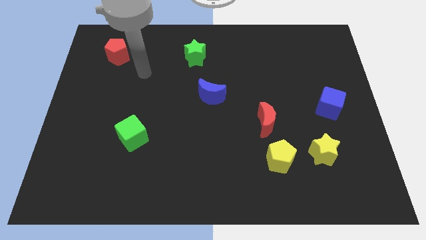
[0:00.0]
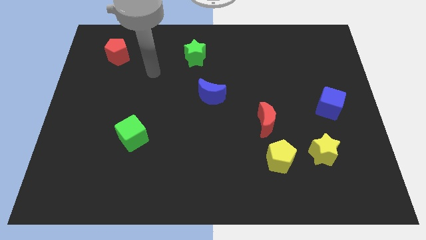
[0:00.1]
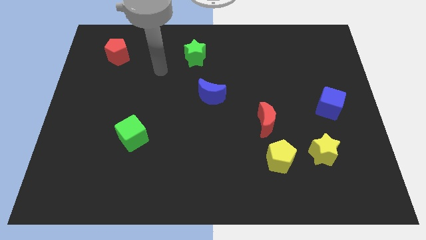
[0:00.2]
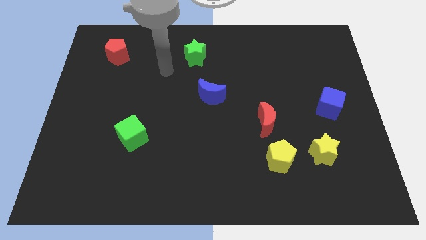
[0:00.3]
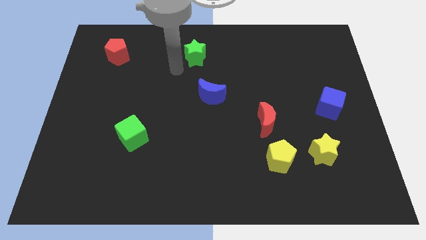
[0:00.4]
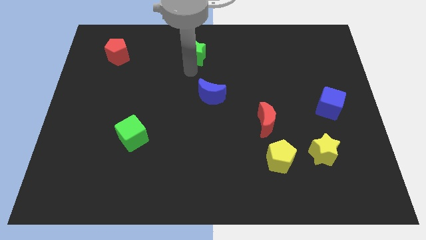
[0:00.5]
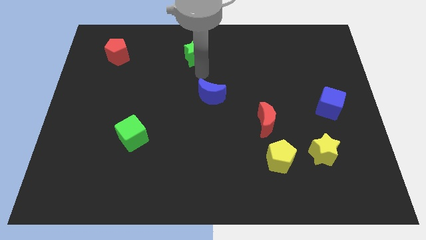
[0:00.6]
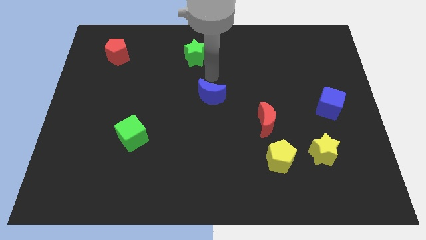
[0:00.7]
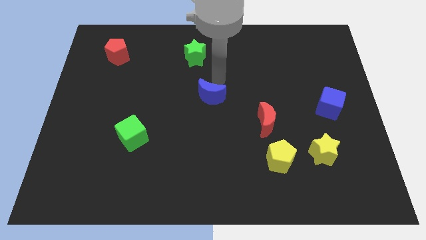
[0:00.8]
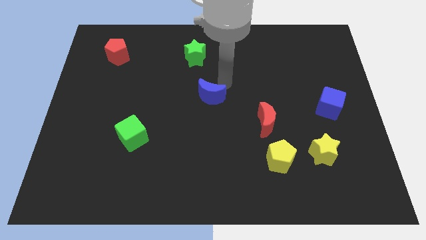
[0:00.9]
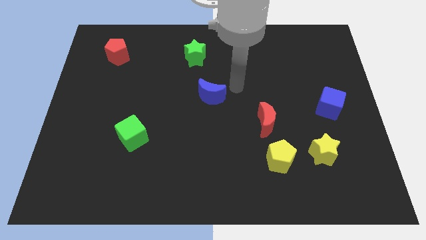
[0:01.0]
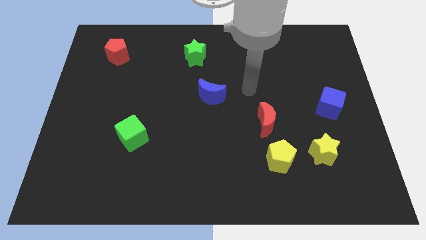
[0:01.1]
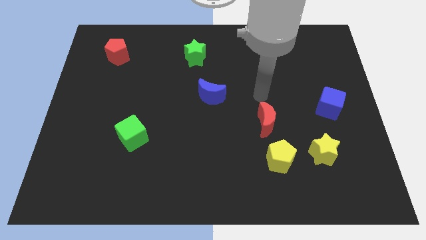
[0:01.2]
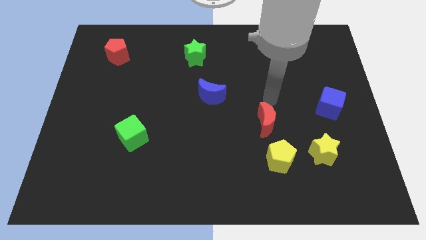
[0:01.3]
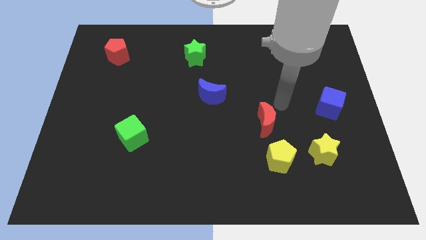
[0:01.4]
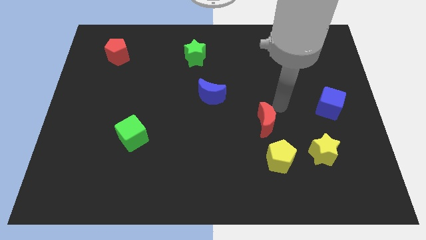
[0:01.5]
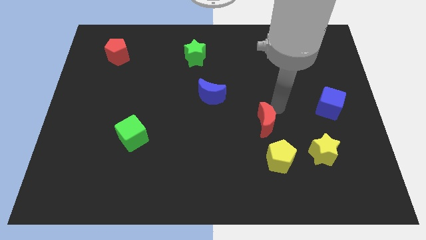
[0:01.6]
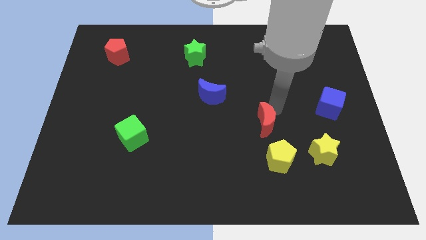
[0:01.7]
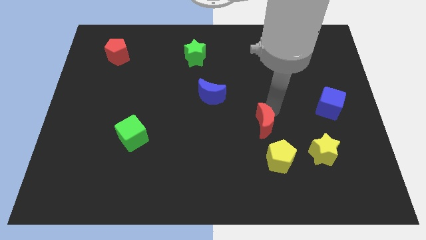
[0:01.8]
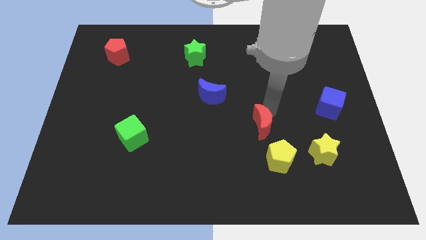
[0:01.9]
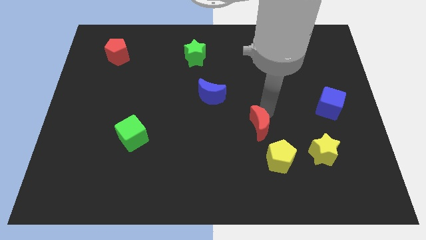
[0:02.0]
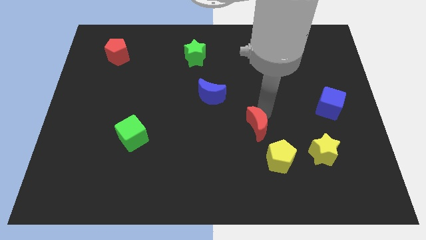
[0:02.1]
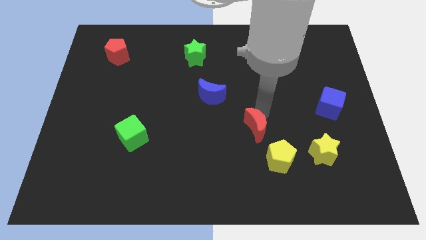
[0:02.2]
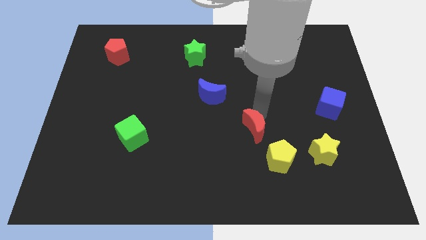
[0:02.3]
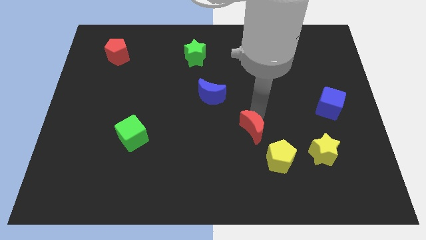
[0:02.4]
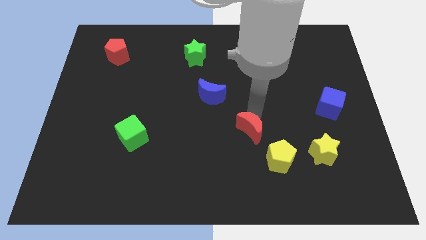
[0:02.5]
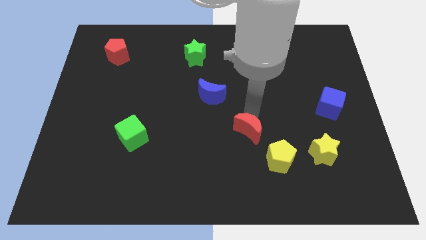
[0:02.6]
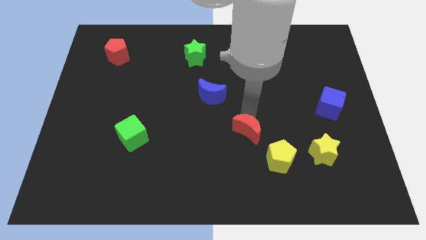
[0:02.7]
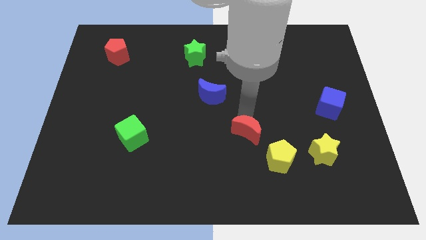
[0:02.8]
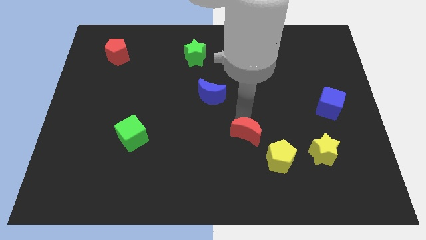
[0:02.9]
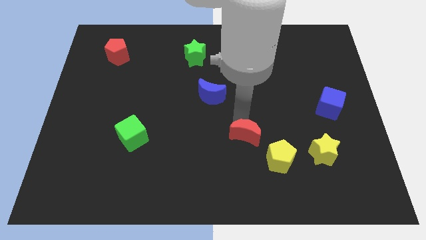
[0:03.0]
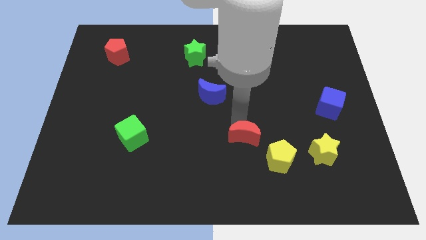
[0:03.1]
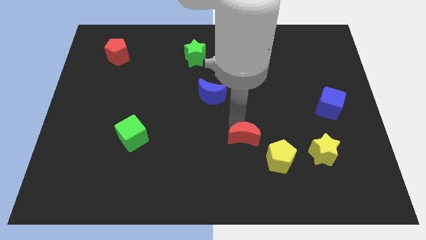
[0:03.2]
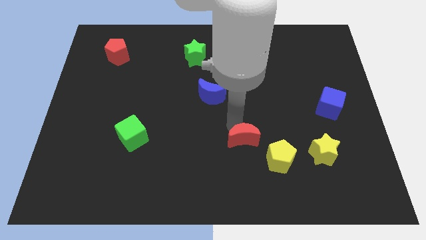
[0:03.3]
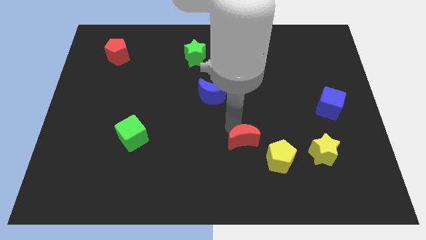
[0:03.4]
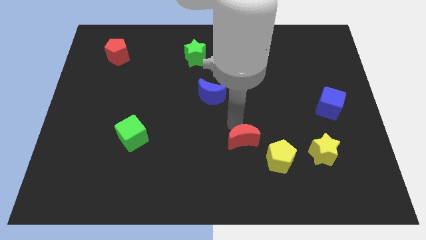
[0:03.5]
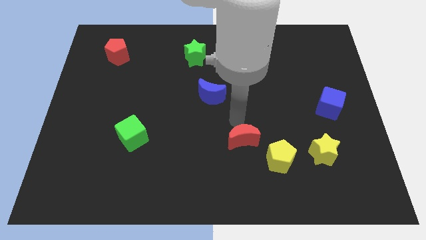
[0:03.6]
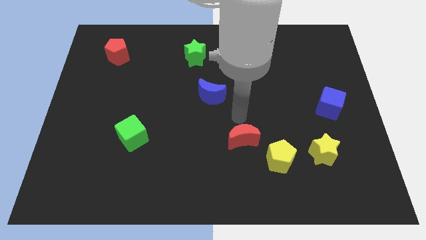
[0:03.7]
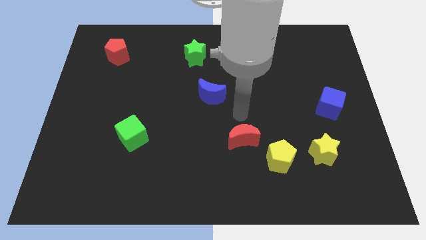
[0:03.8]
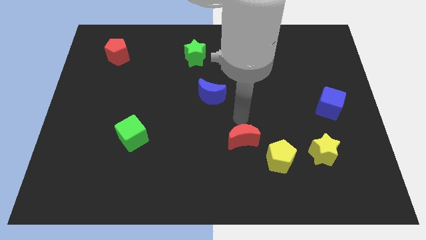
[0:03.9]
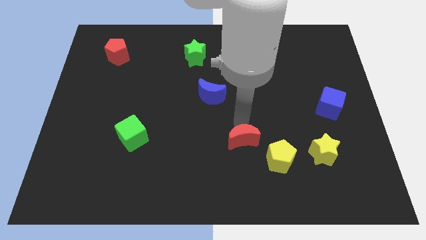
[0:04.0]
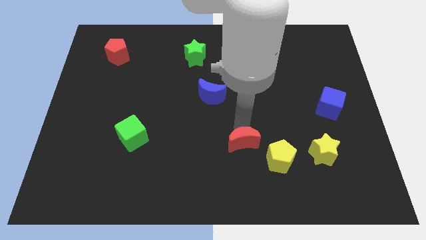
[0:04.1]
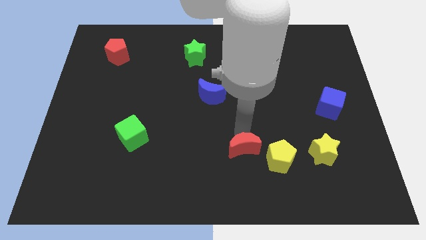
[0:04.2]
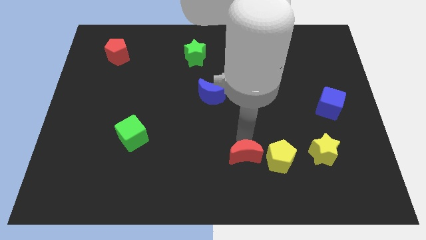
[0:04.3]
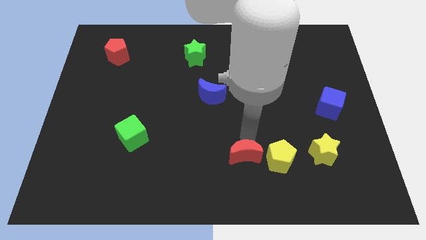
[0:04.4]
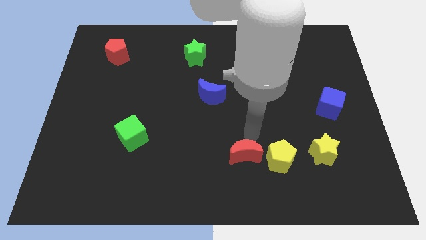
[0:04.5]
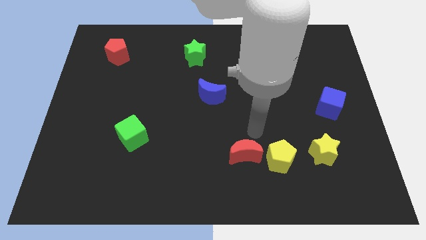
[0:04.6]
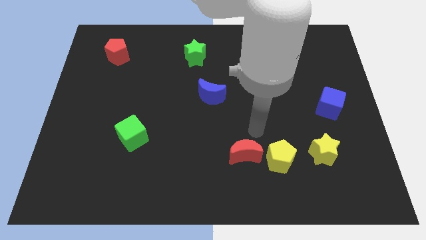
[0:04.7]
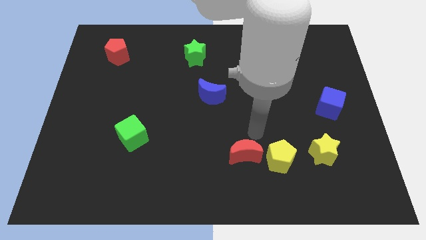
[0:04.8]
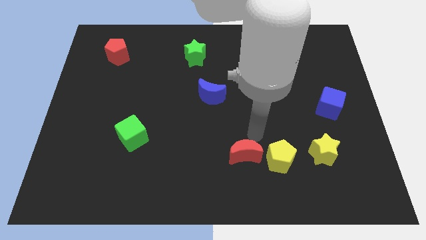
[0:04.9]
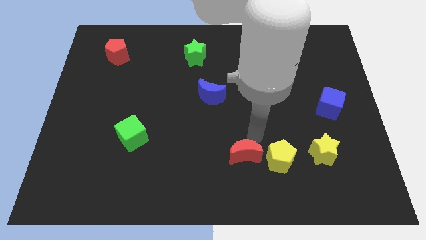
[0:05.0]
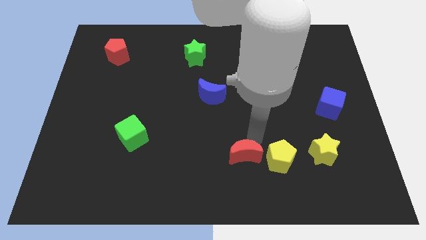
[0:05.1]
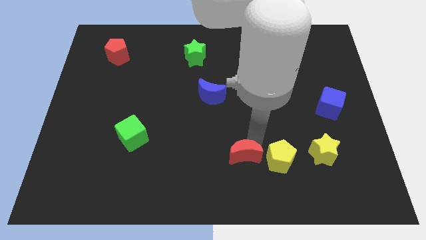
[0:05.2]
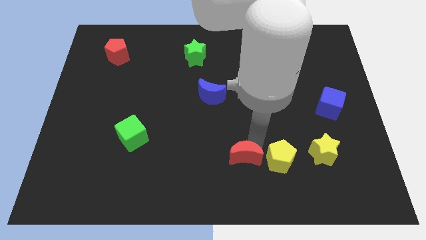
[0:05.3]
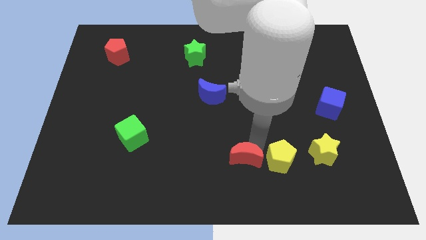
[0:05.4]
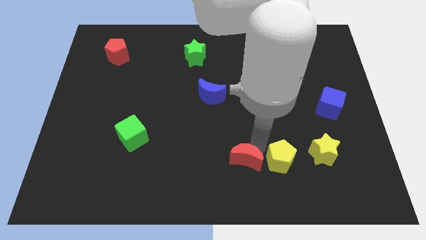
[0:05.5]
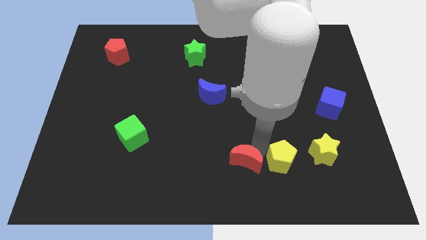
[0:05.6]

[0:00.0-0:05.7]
move the red moon to the bottom

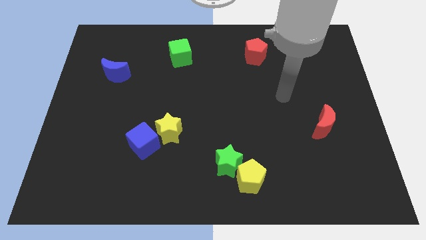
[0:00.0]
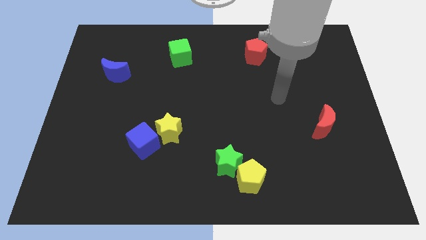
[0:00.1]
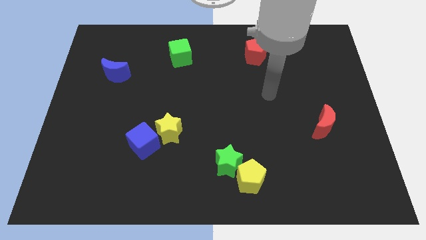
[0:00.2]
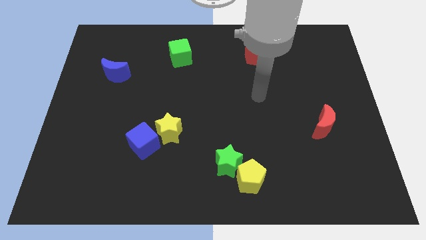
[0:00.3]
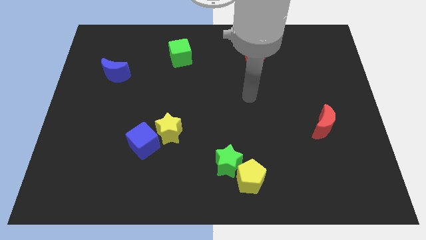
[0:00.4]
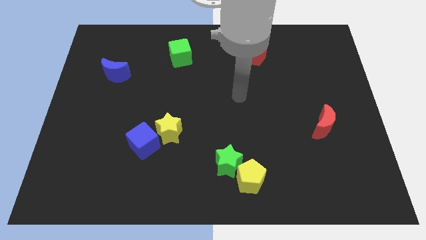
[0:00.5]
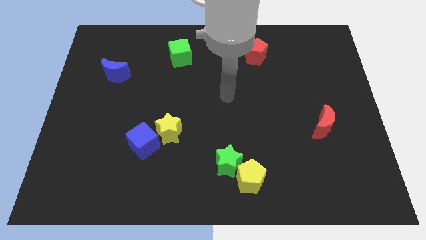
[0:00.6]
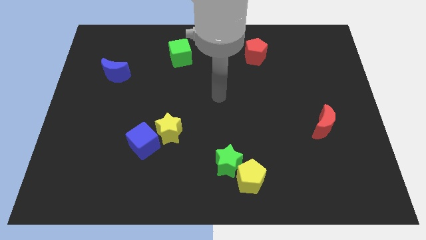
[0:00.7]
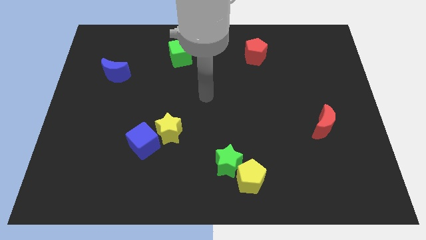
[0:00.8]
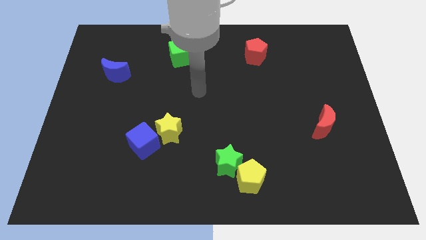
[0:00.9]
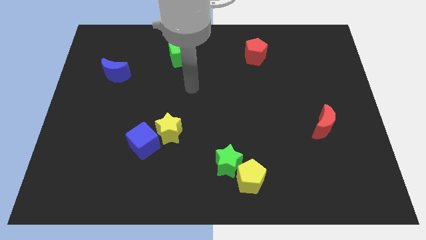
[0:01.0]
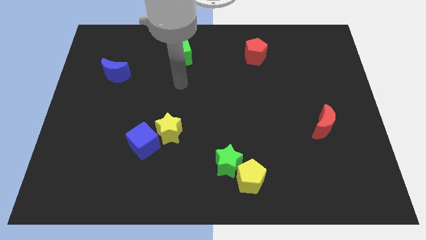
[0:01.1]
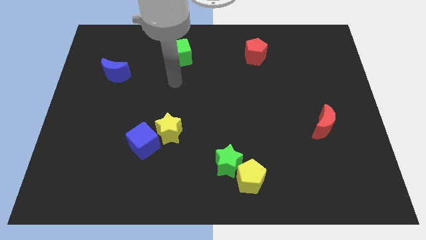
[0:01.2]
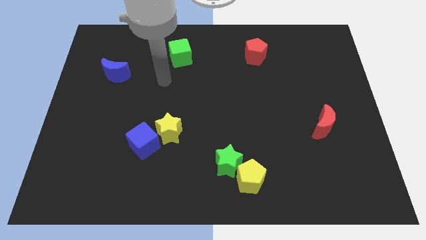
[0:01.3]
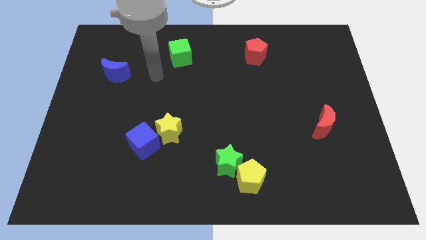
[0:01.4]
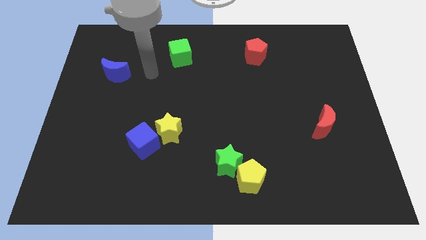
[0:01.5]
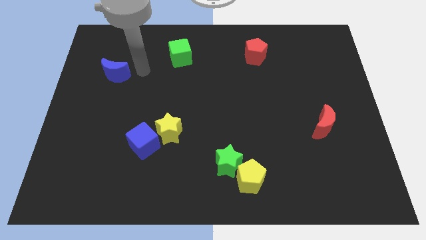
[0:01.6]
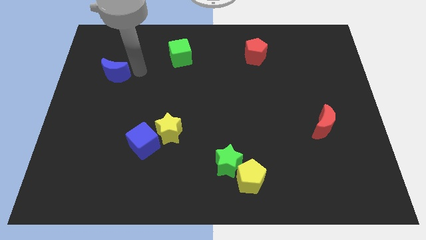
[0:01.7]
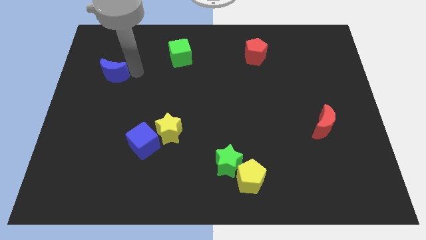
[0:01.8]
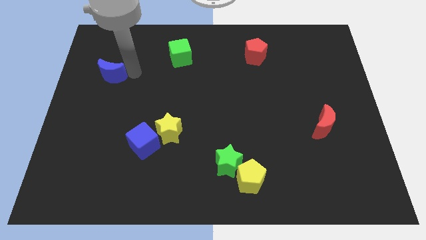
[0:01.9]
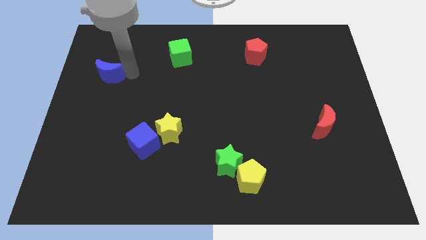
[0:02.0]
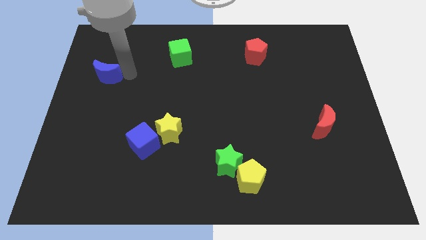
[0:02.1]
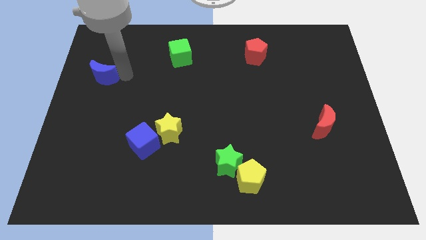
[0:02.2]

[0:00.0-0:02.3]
push the blue moon to the left side
